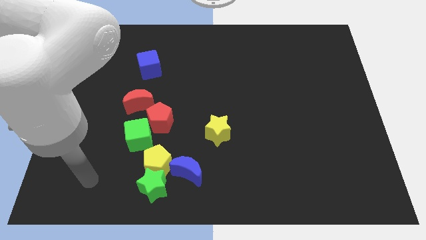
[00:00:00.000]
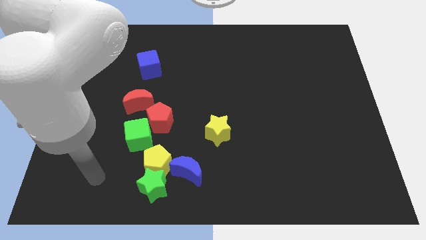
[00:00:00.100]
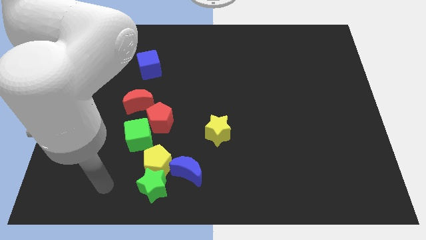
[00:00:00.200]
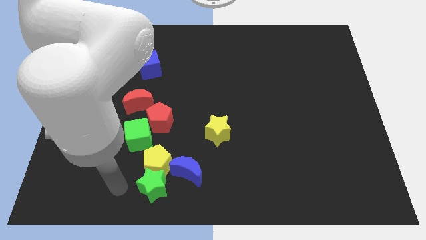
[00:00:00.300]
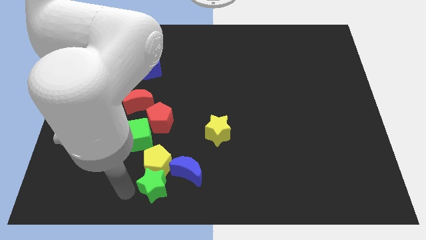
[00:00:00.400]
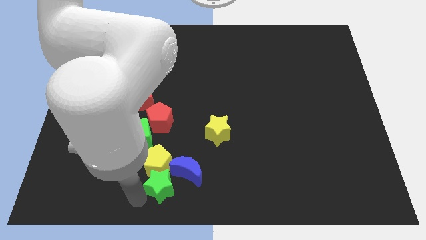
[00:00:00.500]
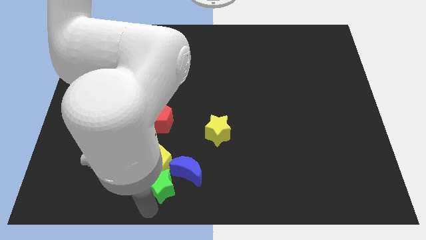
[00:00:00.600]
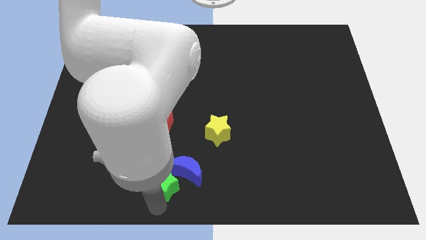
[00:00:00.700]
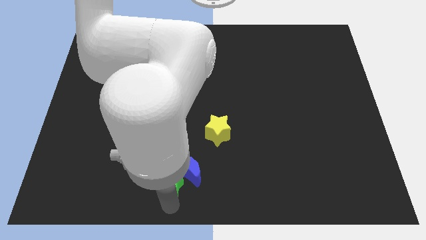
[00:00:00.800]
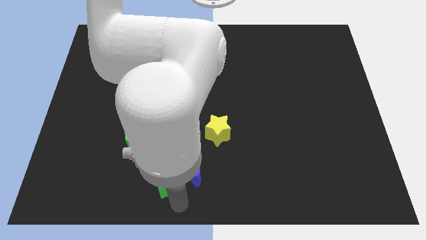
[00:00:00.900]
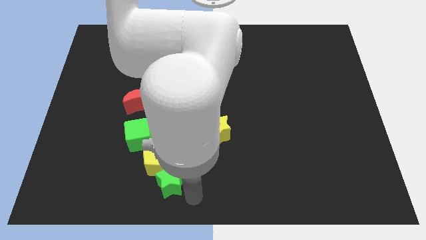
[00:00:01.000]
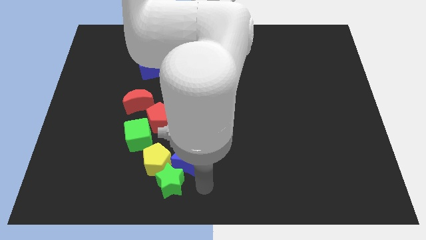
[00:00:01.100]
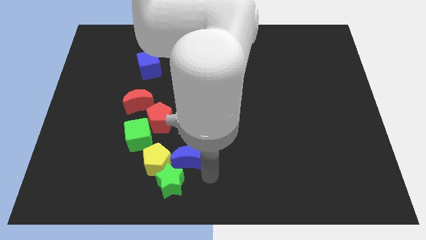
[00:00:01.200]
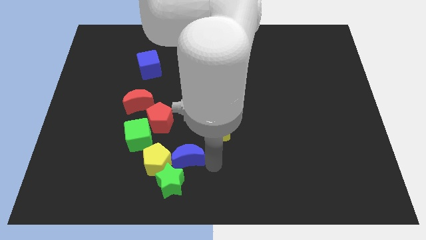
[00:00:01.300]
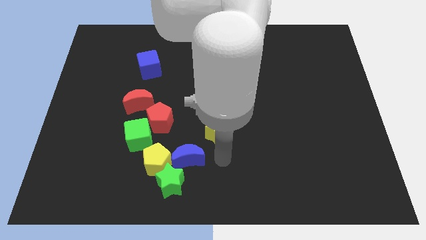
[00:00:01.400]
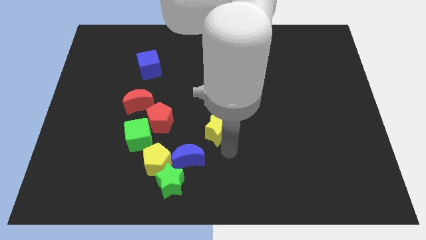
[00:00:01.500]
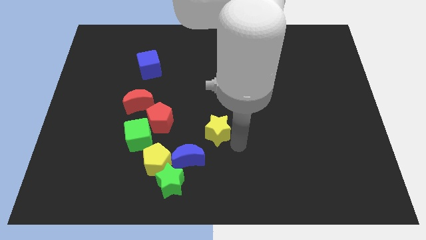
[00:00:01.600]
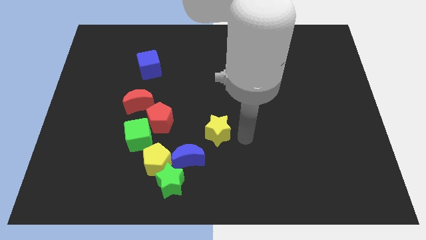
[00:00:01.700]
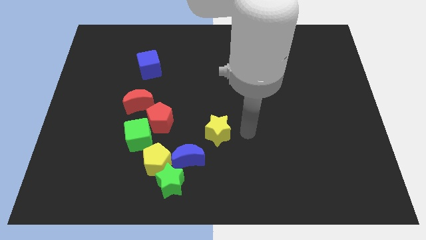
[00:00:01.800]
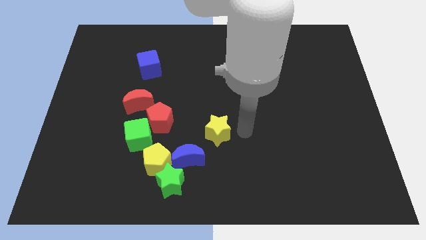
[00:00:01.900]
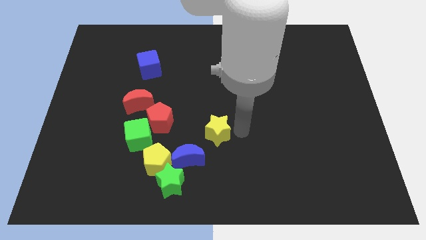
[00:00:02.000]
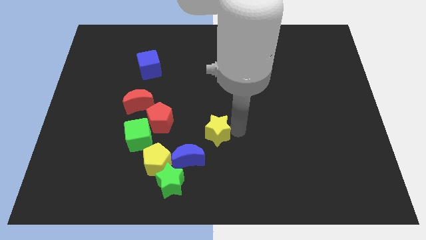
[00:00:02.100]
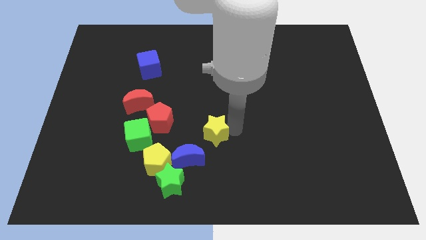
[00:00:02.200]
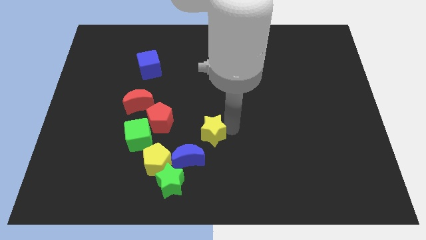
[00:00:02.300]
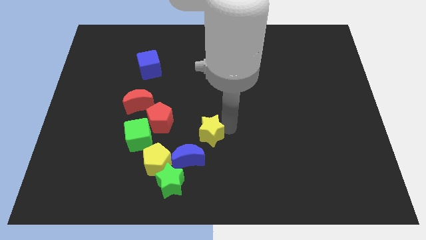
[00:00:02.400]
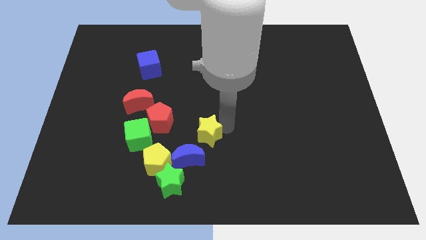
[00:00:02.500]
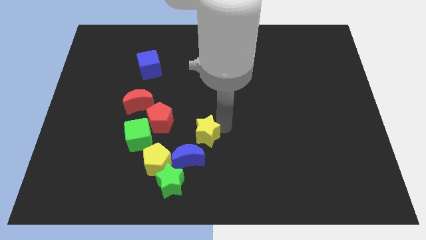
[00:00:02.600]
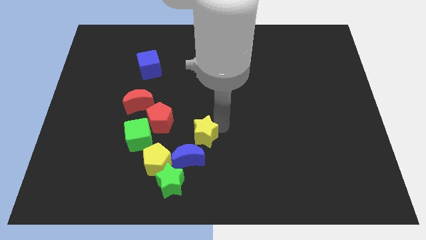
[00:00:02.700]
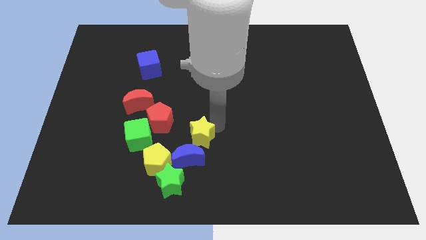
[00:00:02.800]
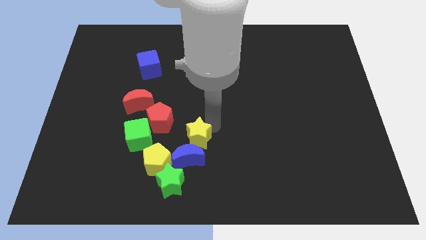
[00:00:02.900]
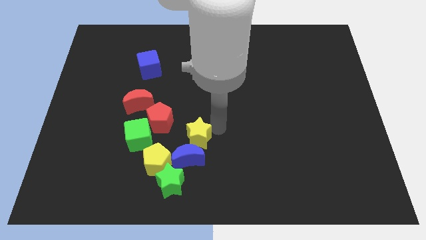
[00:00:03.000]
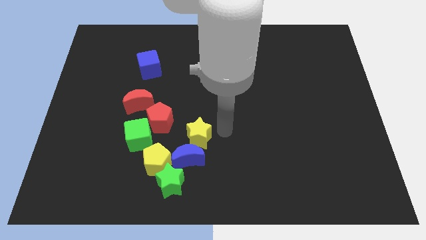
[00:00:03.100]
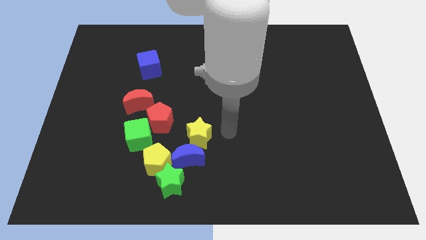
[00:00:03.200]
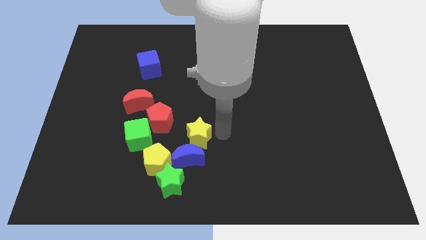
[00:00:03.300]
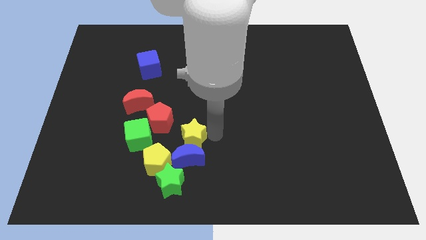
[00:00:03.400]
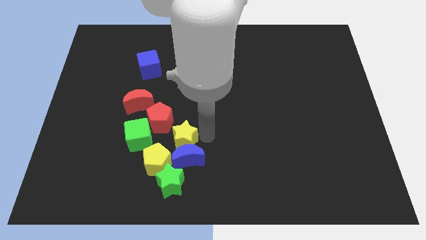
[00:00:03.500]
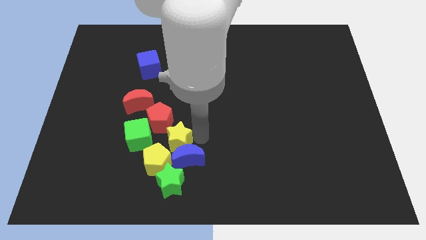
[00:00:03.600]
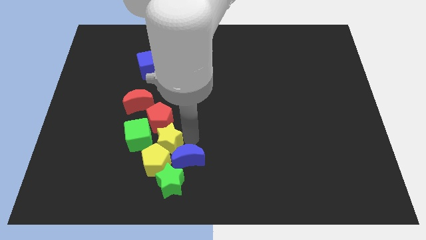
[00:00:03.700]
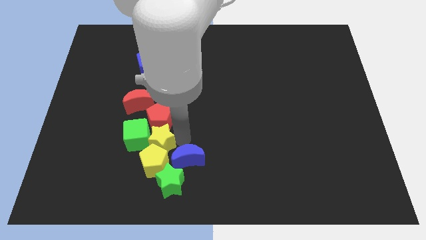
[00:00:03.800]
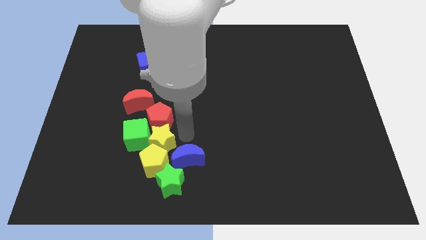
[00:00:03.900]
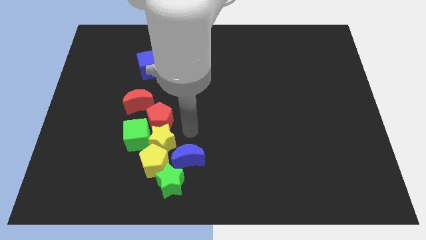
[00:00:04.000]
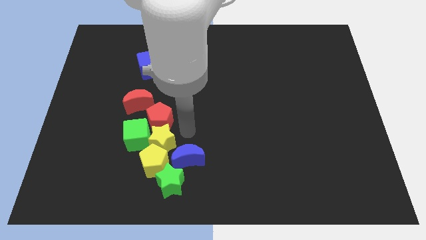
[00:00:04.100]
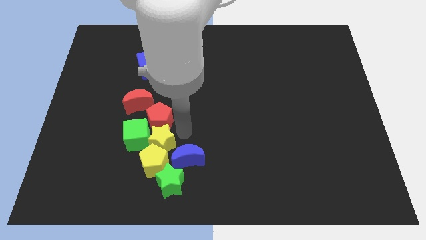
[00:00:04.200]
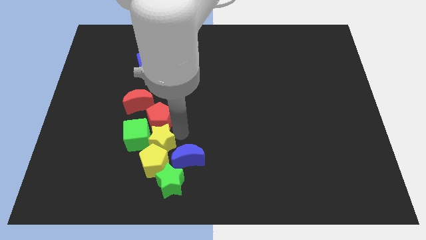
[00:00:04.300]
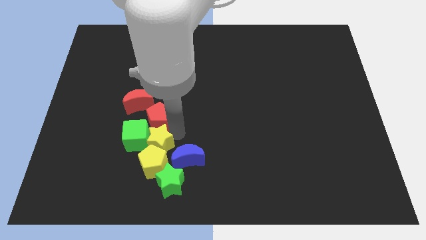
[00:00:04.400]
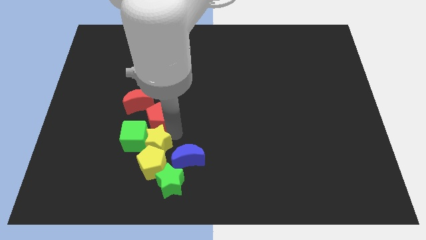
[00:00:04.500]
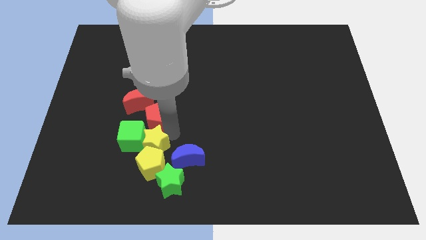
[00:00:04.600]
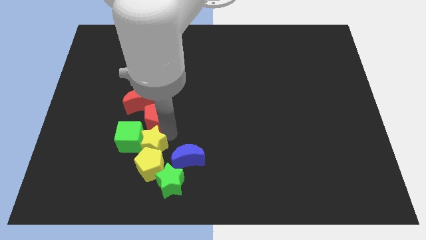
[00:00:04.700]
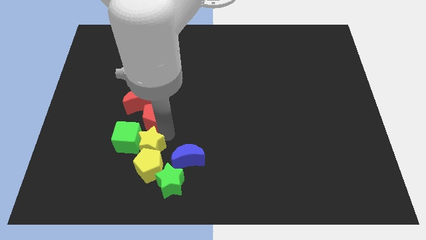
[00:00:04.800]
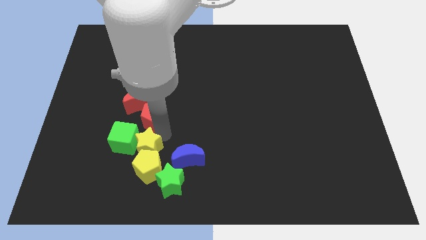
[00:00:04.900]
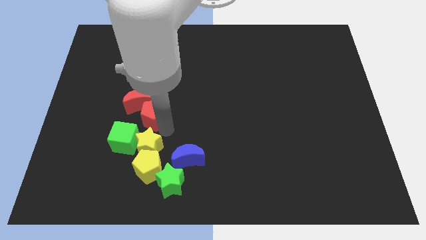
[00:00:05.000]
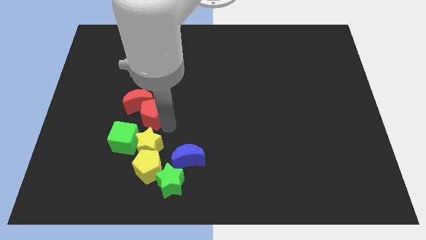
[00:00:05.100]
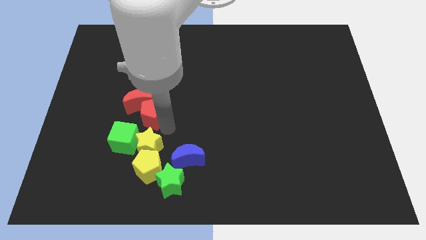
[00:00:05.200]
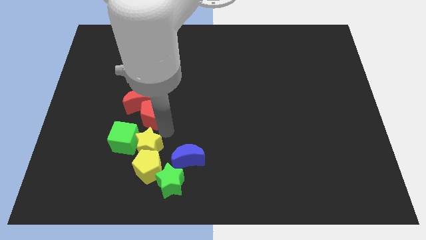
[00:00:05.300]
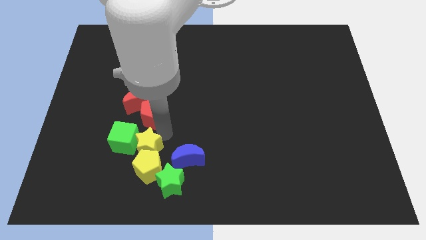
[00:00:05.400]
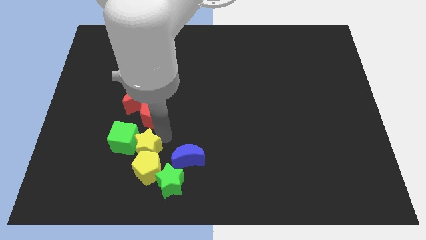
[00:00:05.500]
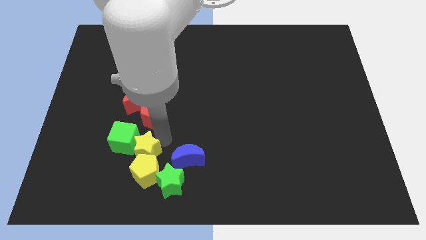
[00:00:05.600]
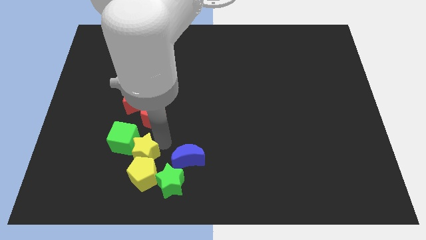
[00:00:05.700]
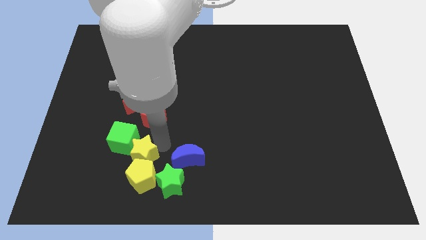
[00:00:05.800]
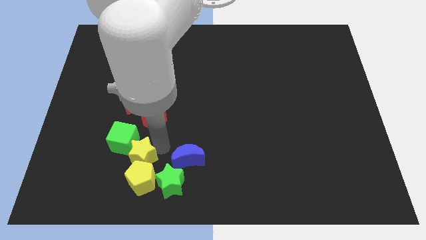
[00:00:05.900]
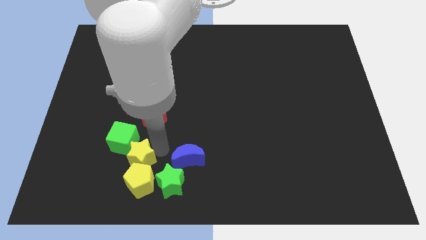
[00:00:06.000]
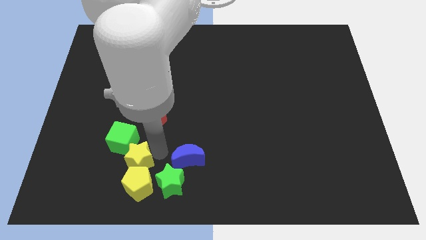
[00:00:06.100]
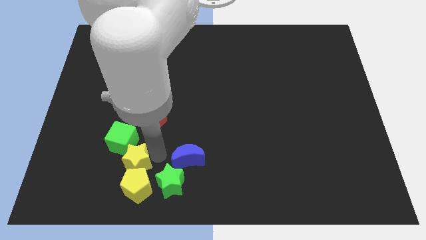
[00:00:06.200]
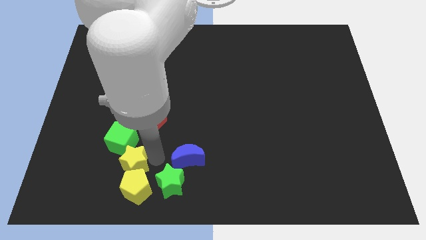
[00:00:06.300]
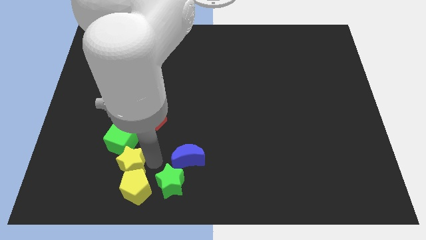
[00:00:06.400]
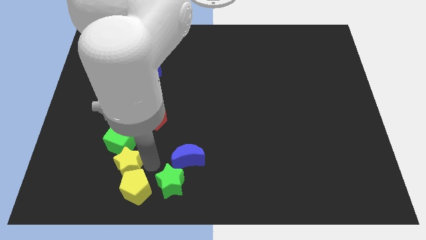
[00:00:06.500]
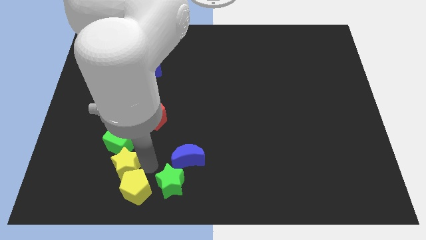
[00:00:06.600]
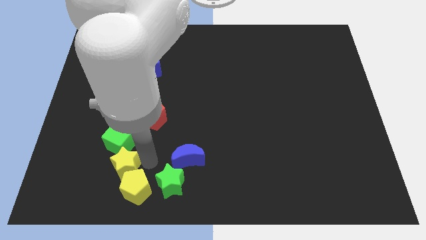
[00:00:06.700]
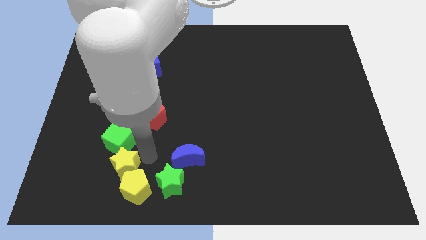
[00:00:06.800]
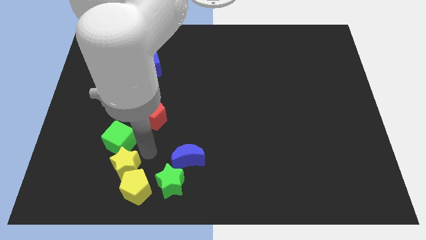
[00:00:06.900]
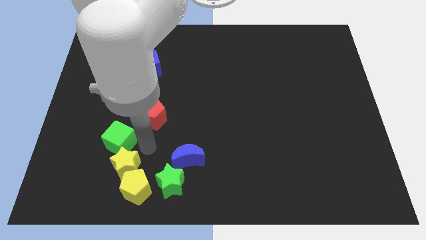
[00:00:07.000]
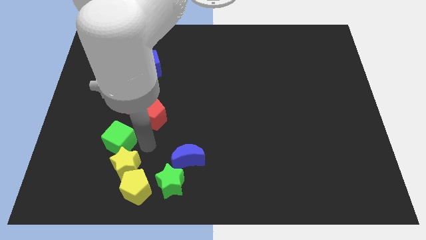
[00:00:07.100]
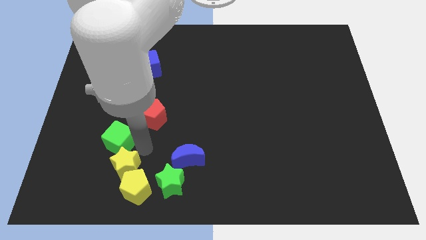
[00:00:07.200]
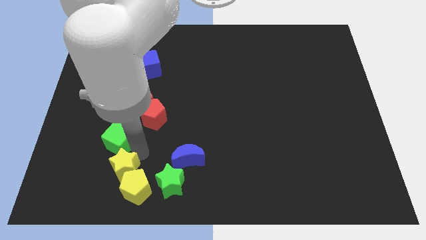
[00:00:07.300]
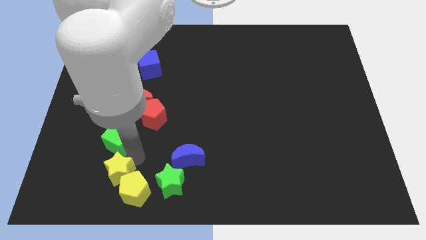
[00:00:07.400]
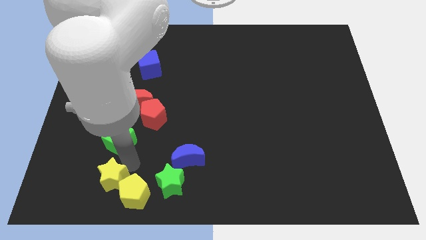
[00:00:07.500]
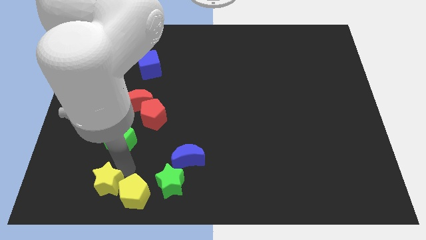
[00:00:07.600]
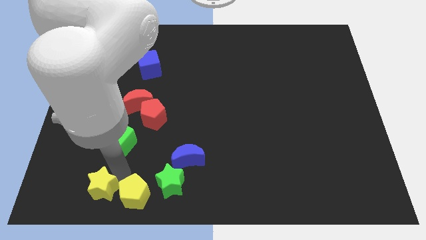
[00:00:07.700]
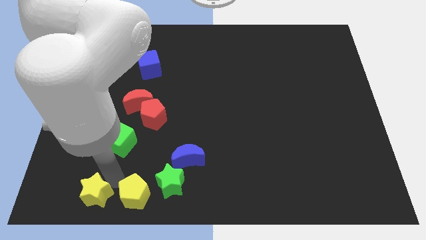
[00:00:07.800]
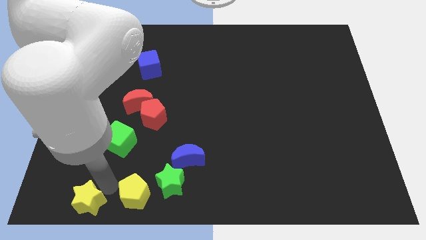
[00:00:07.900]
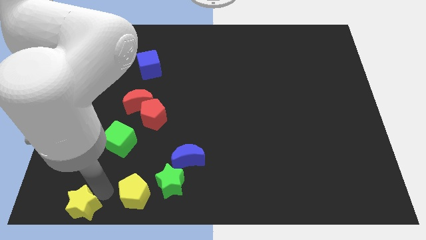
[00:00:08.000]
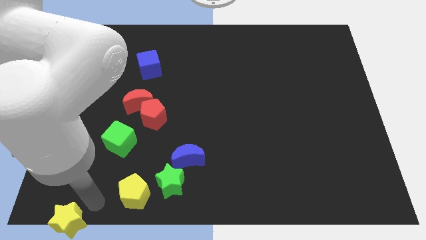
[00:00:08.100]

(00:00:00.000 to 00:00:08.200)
push the yellow star to the bottom left of the board
